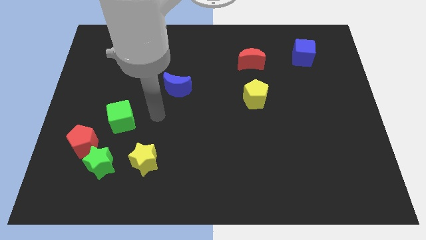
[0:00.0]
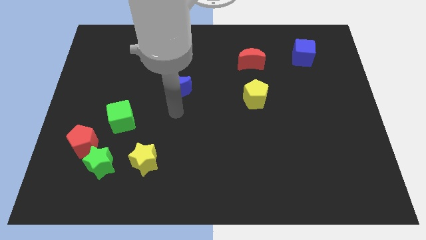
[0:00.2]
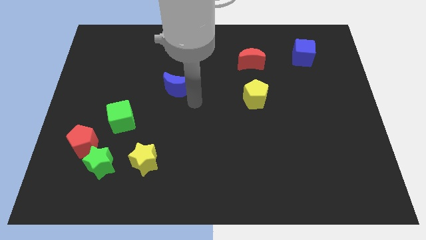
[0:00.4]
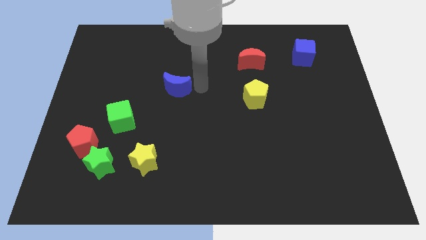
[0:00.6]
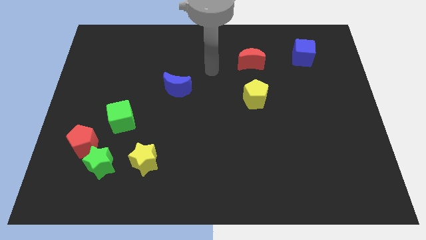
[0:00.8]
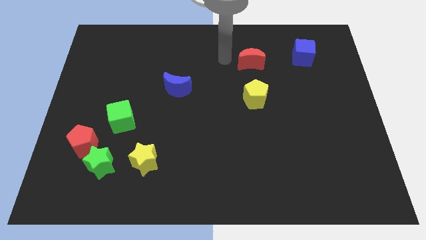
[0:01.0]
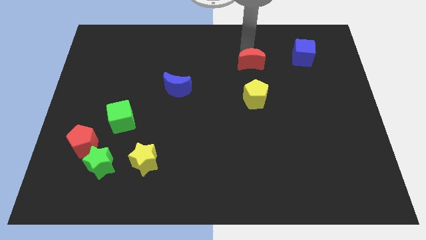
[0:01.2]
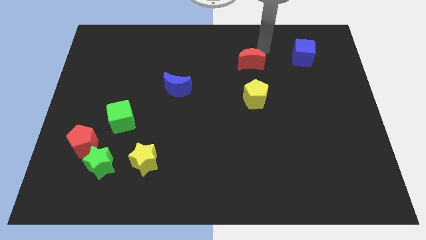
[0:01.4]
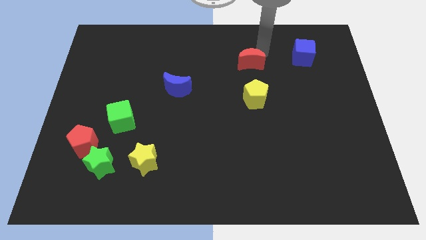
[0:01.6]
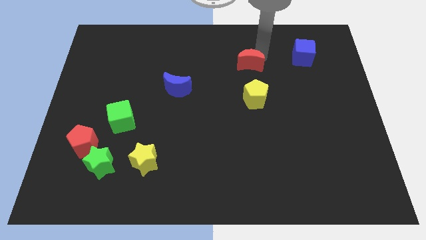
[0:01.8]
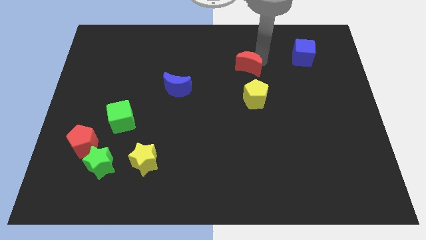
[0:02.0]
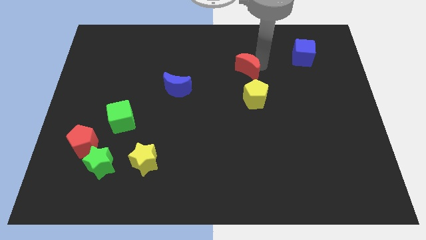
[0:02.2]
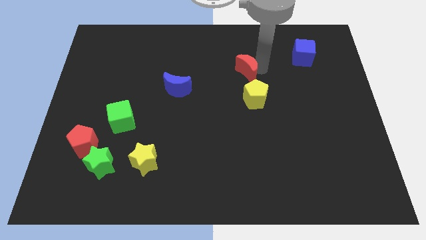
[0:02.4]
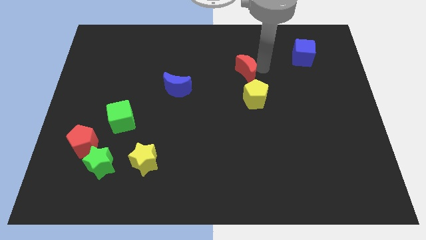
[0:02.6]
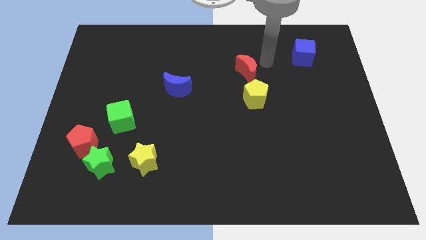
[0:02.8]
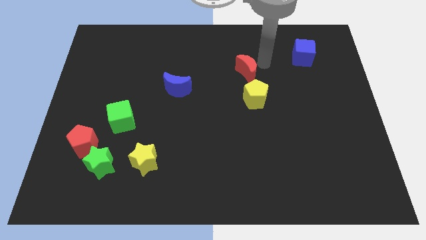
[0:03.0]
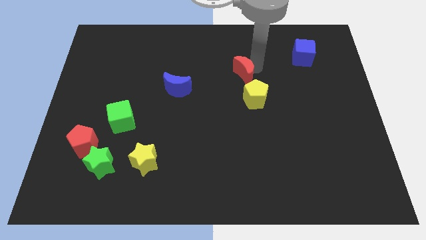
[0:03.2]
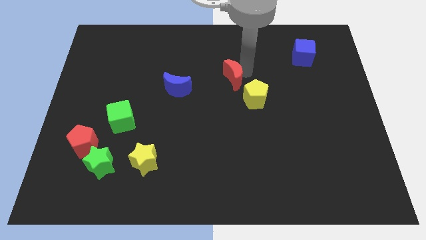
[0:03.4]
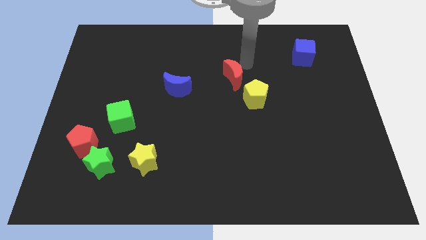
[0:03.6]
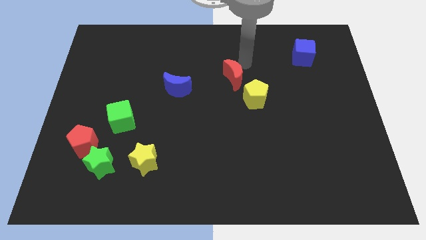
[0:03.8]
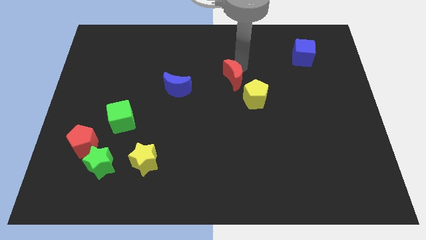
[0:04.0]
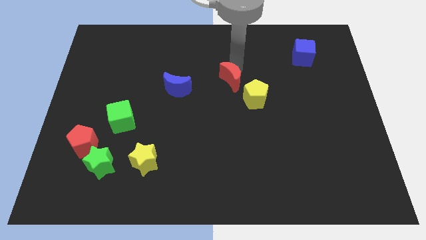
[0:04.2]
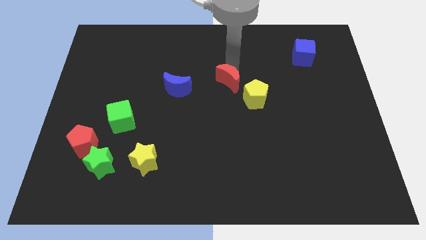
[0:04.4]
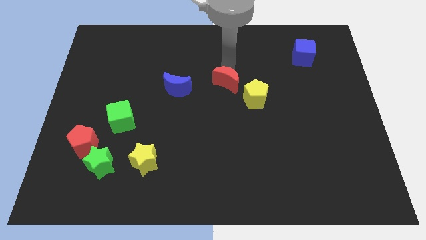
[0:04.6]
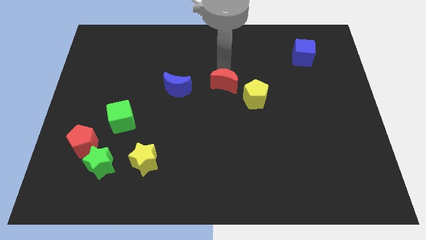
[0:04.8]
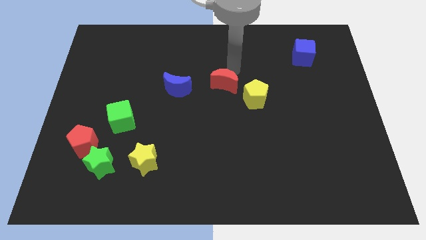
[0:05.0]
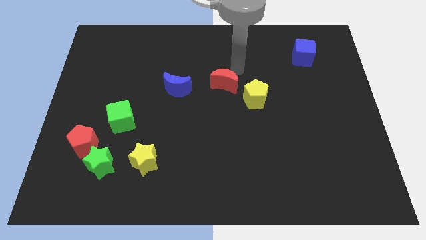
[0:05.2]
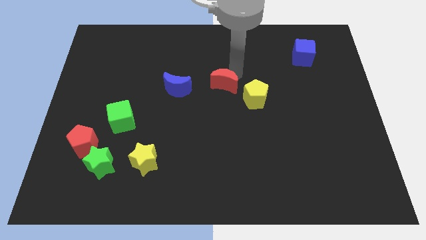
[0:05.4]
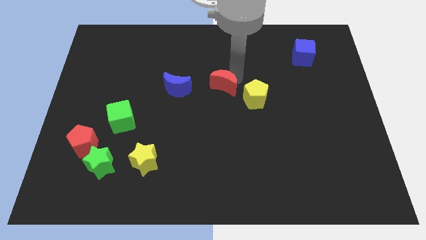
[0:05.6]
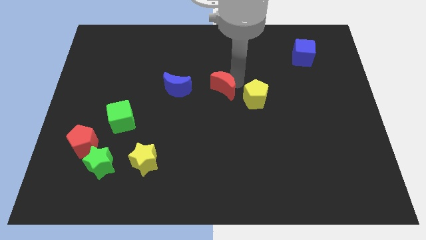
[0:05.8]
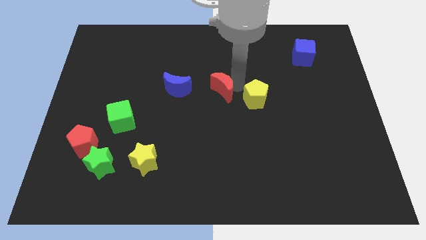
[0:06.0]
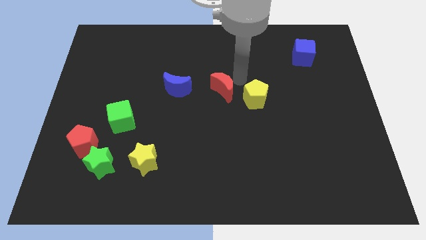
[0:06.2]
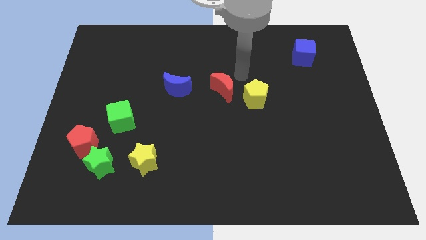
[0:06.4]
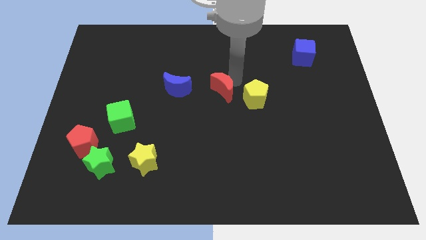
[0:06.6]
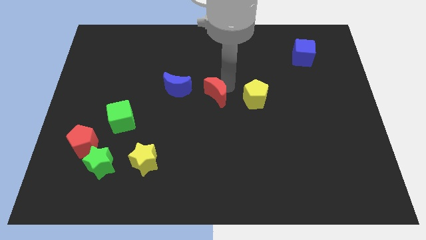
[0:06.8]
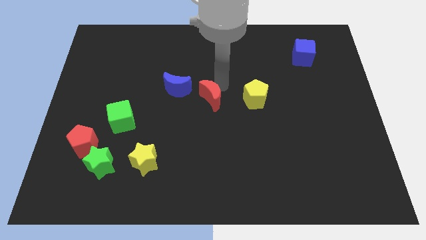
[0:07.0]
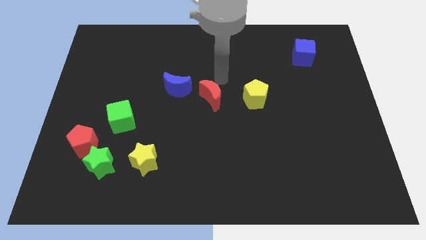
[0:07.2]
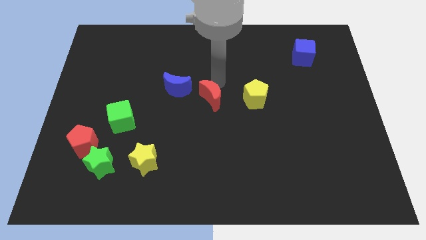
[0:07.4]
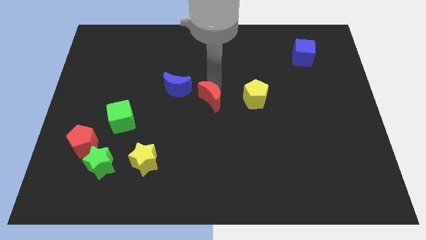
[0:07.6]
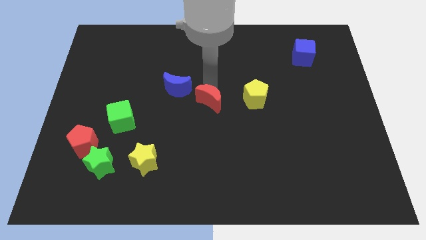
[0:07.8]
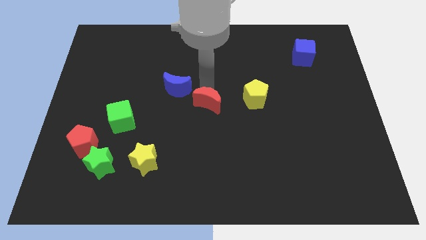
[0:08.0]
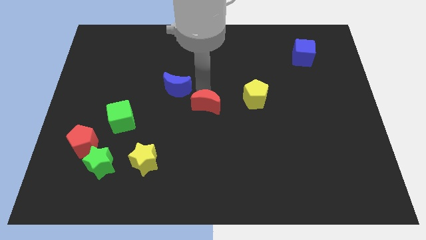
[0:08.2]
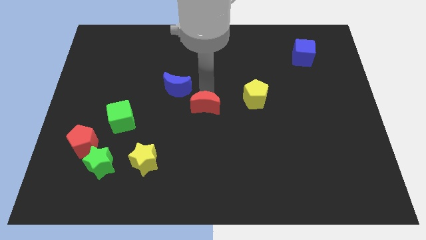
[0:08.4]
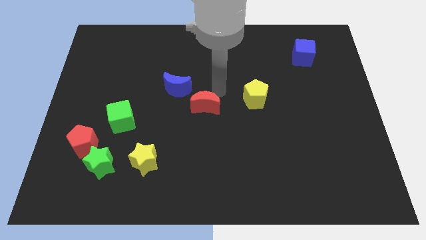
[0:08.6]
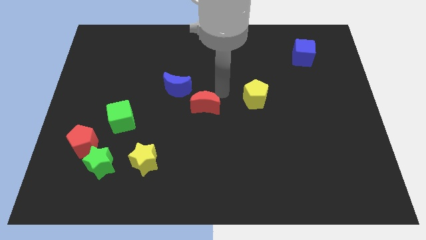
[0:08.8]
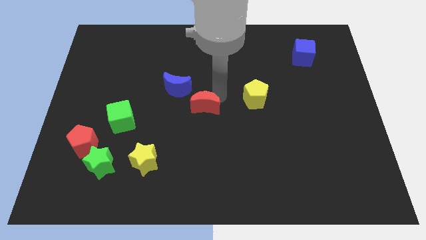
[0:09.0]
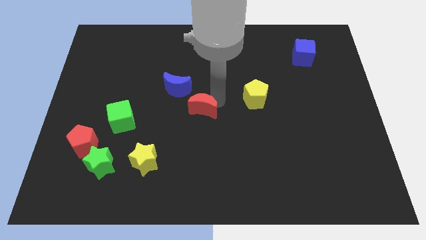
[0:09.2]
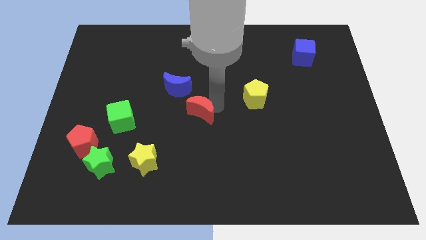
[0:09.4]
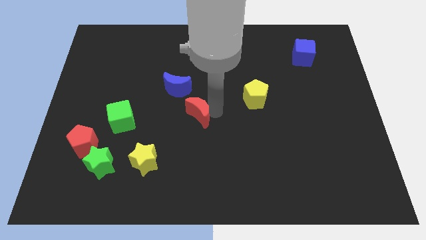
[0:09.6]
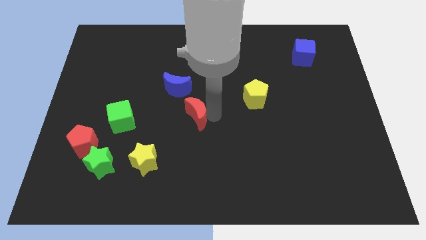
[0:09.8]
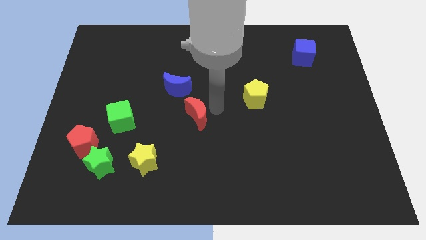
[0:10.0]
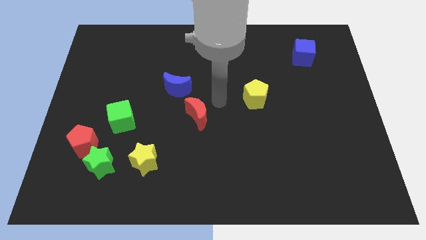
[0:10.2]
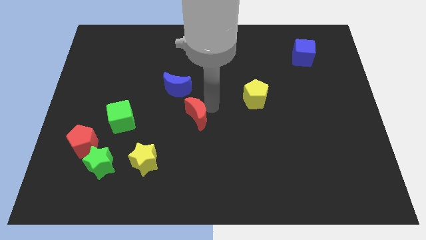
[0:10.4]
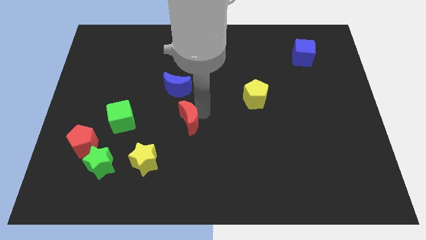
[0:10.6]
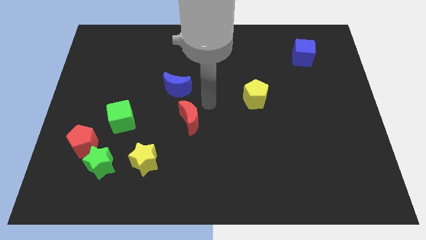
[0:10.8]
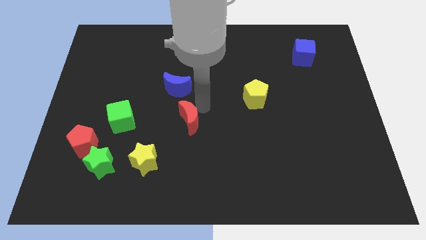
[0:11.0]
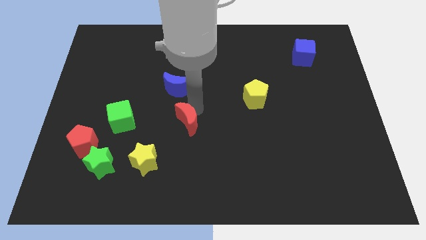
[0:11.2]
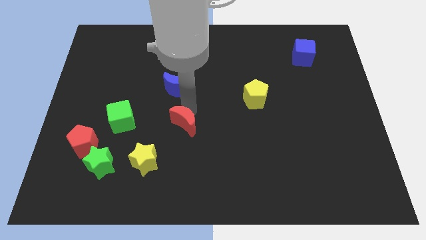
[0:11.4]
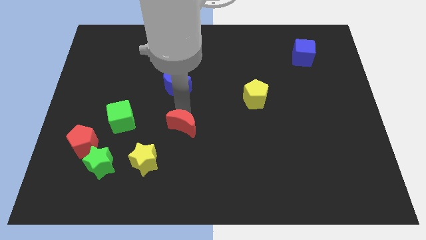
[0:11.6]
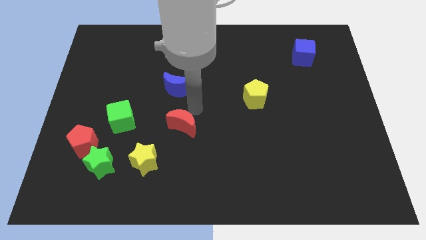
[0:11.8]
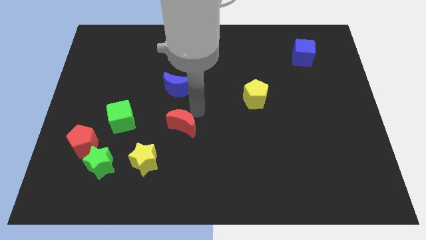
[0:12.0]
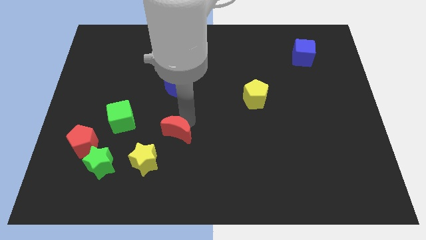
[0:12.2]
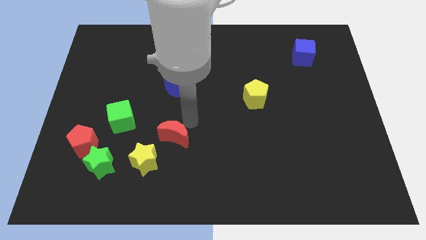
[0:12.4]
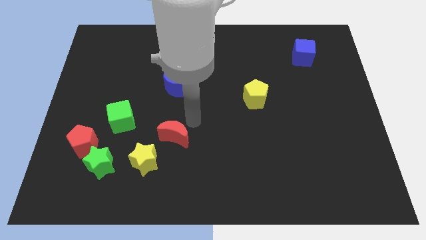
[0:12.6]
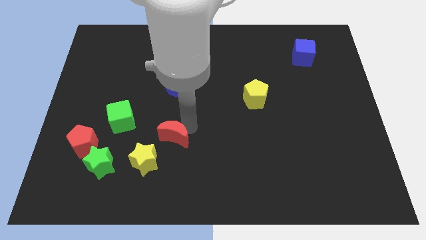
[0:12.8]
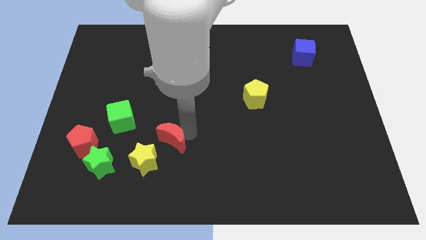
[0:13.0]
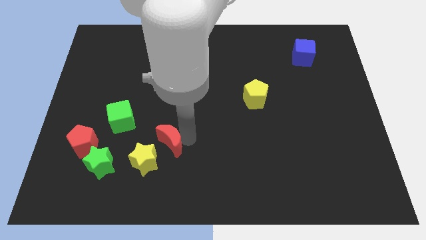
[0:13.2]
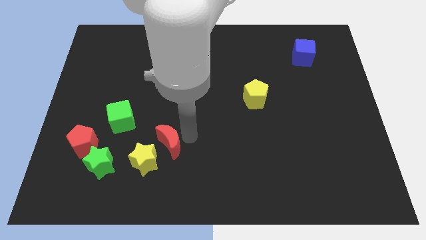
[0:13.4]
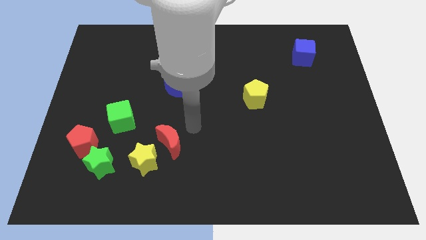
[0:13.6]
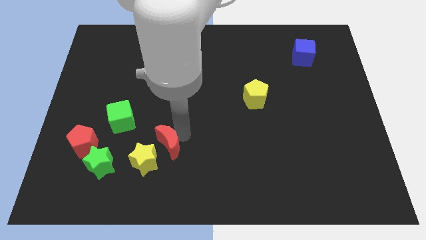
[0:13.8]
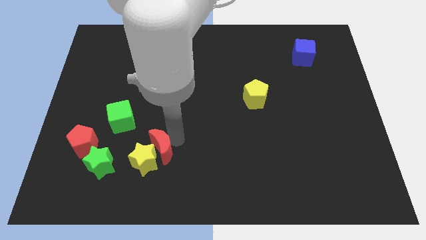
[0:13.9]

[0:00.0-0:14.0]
push the red moon close to the yellow star
